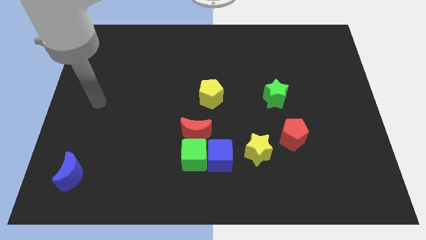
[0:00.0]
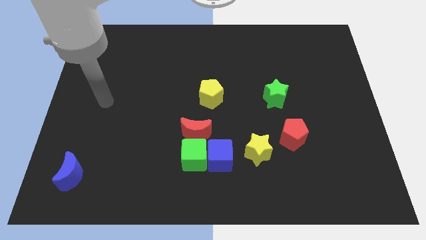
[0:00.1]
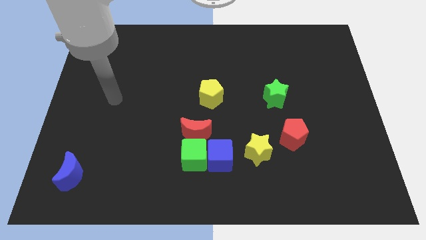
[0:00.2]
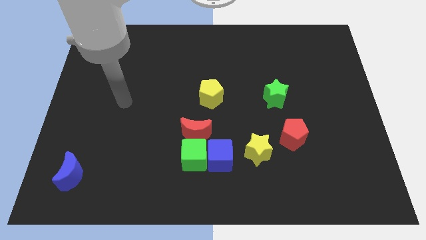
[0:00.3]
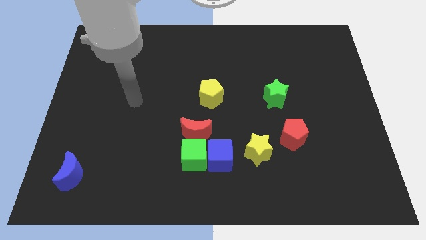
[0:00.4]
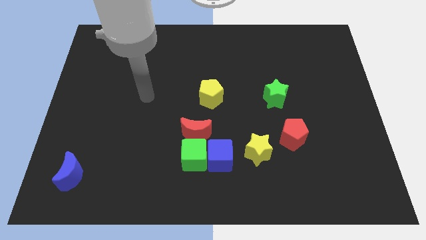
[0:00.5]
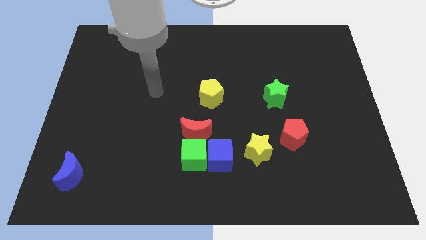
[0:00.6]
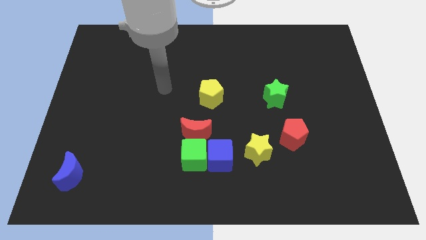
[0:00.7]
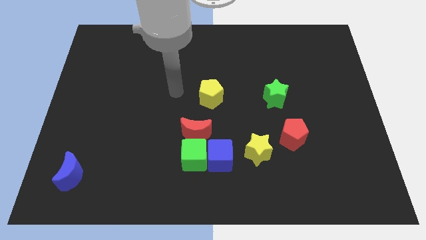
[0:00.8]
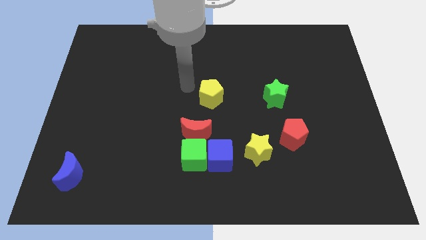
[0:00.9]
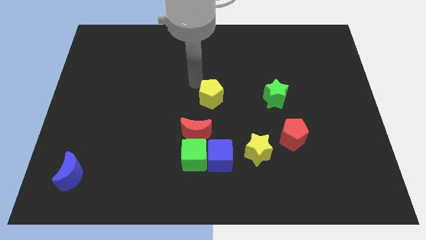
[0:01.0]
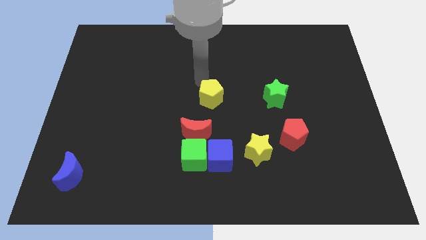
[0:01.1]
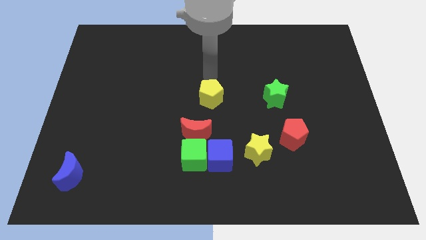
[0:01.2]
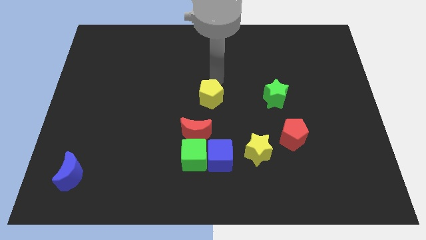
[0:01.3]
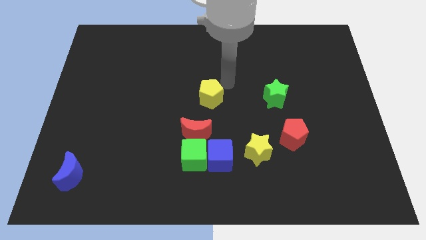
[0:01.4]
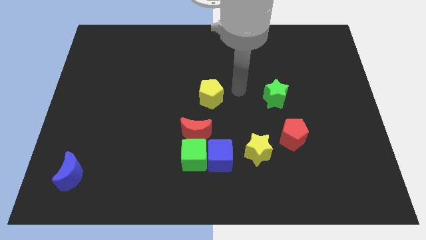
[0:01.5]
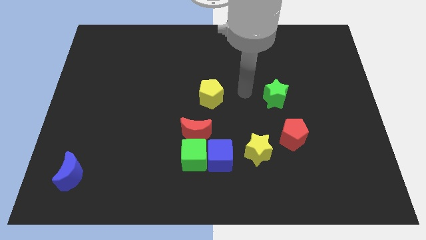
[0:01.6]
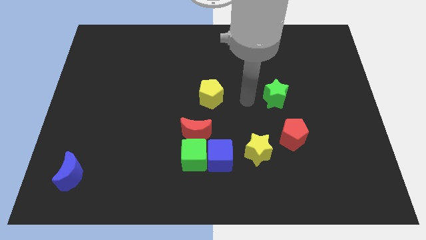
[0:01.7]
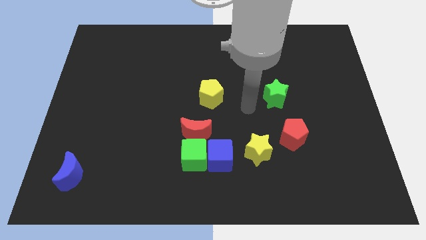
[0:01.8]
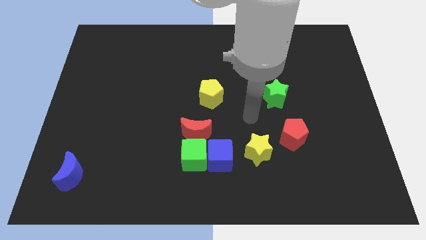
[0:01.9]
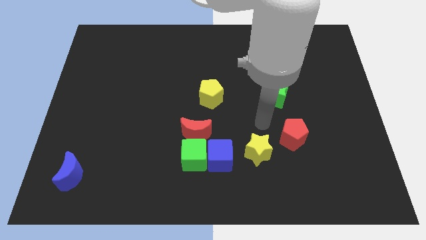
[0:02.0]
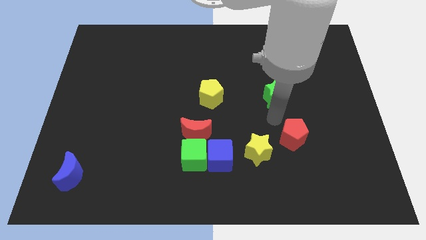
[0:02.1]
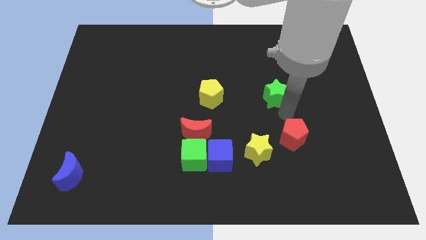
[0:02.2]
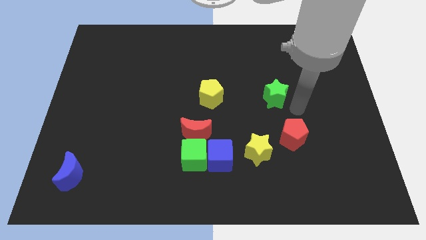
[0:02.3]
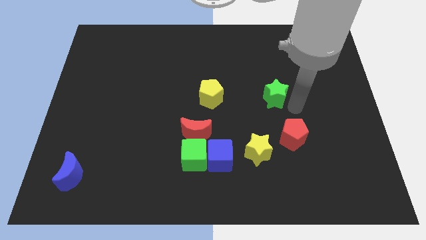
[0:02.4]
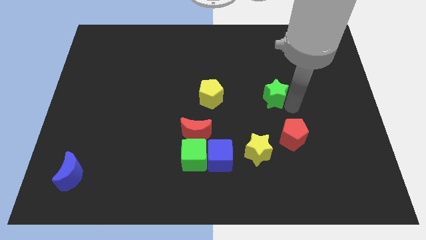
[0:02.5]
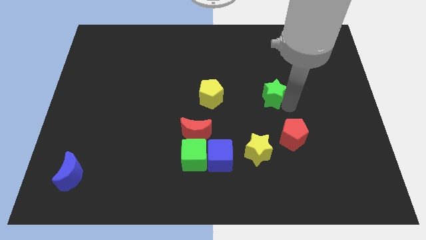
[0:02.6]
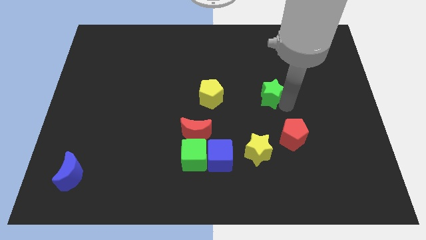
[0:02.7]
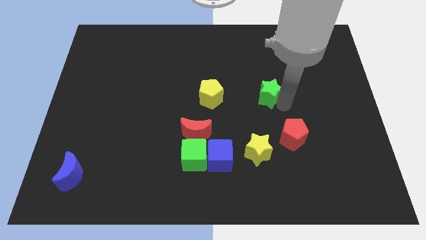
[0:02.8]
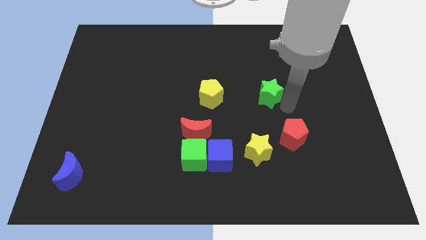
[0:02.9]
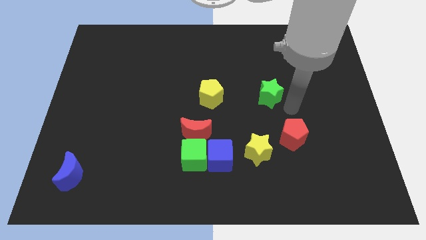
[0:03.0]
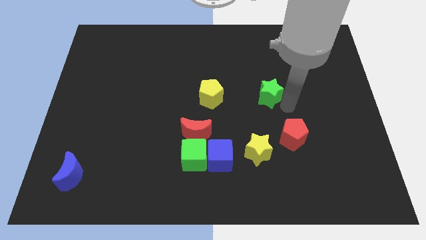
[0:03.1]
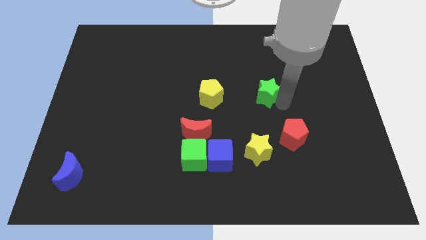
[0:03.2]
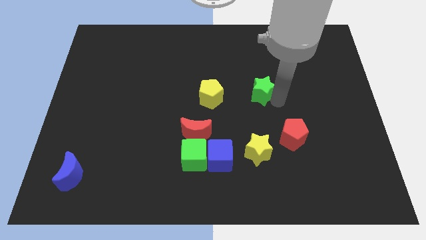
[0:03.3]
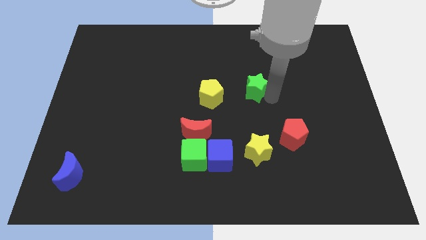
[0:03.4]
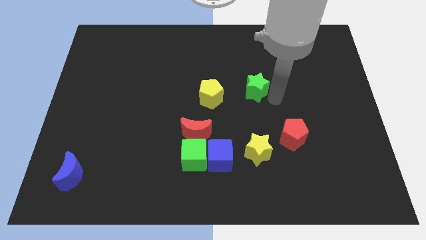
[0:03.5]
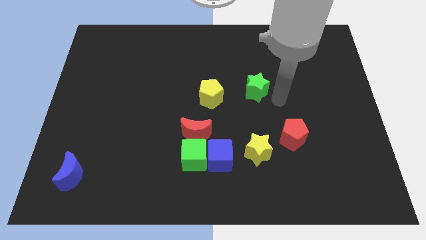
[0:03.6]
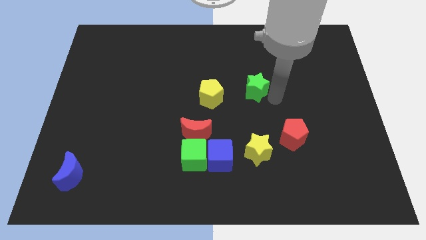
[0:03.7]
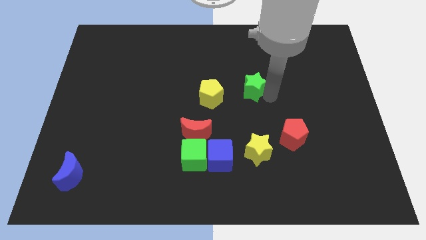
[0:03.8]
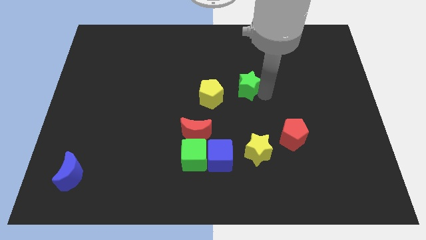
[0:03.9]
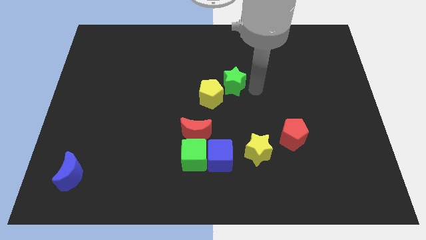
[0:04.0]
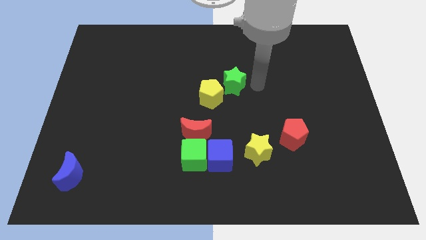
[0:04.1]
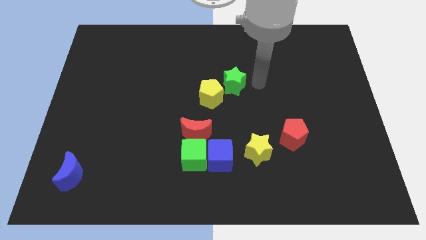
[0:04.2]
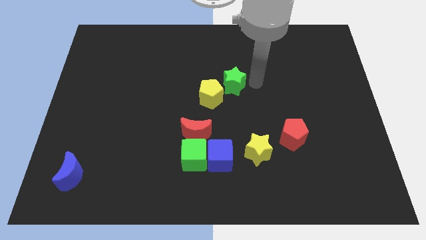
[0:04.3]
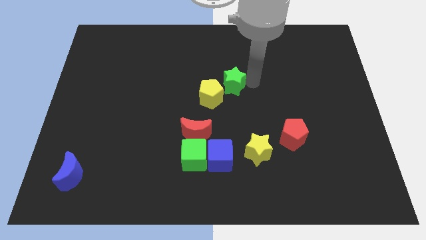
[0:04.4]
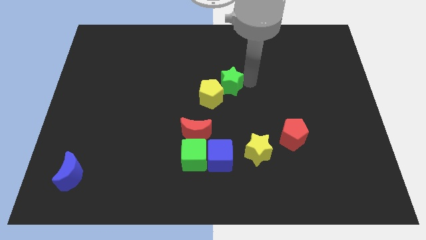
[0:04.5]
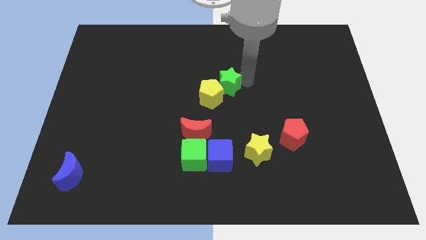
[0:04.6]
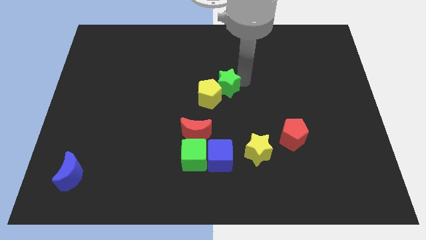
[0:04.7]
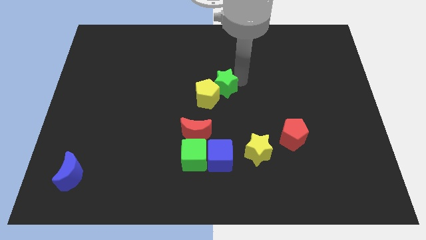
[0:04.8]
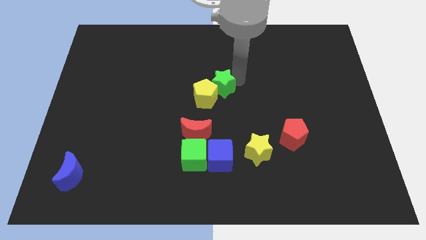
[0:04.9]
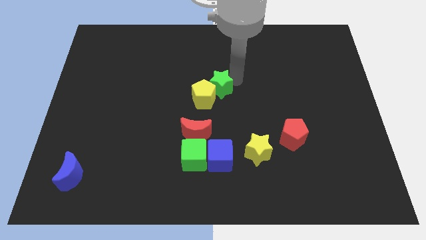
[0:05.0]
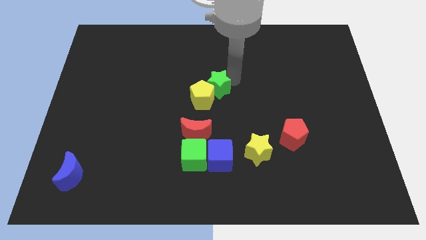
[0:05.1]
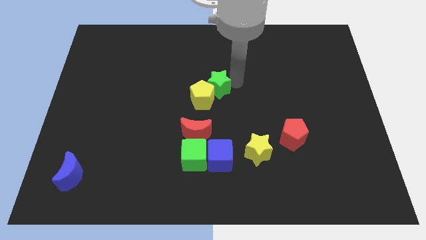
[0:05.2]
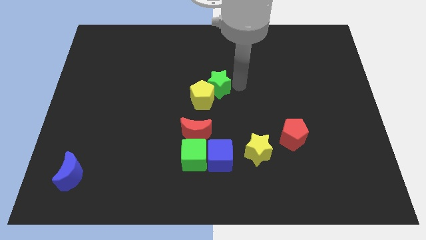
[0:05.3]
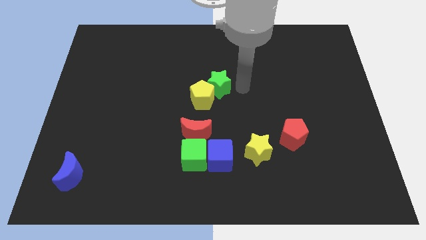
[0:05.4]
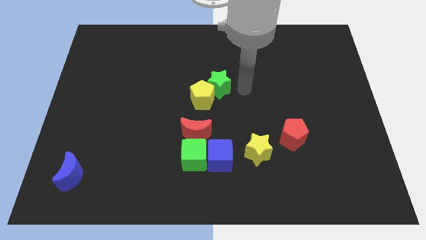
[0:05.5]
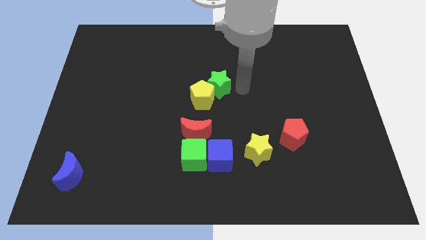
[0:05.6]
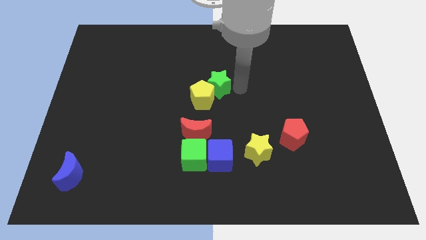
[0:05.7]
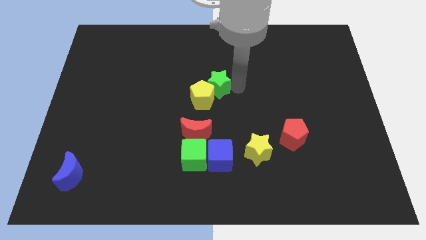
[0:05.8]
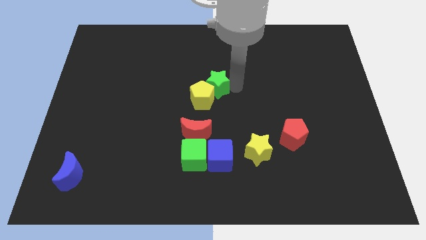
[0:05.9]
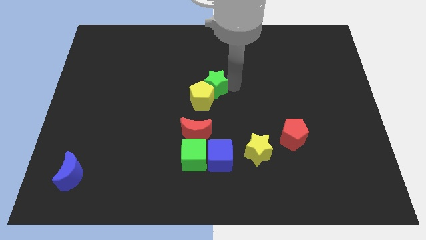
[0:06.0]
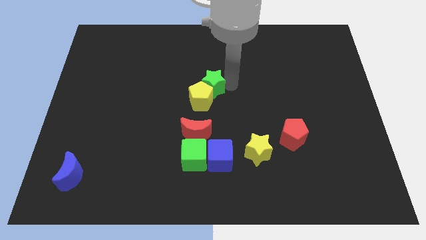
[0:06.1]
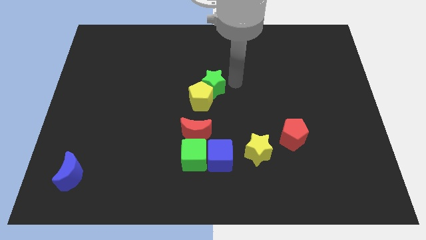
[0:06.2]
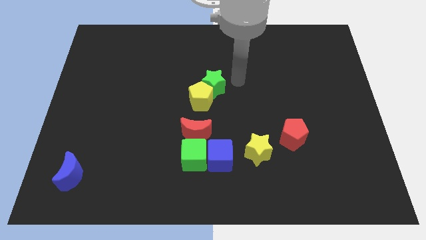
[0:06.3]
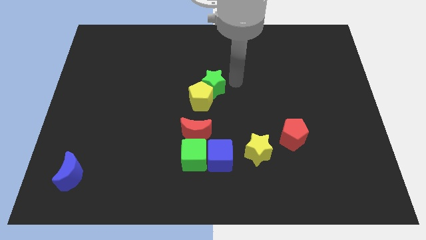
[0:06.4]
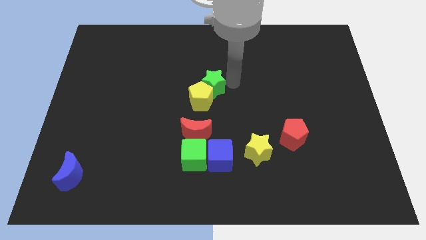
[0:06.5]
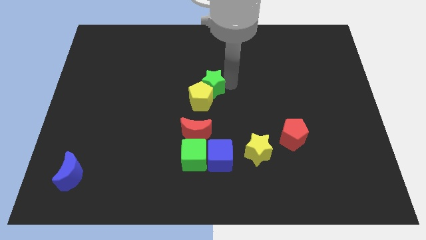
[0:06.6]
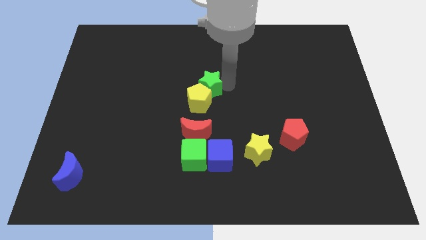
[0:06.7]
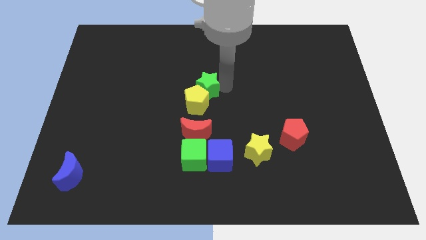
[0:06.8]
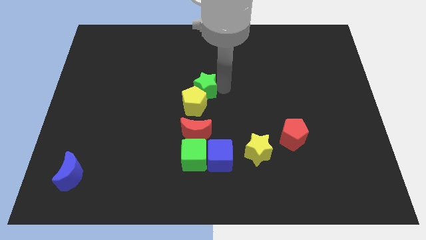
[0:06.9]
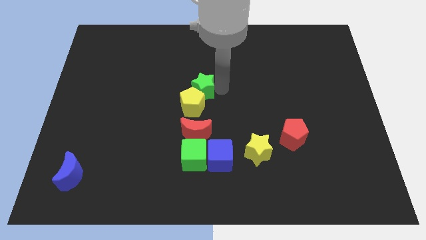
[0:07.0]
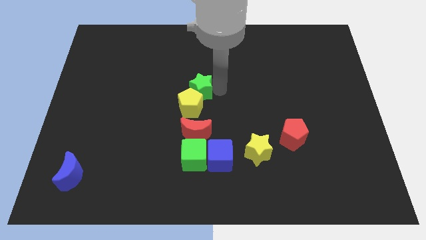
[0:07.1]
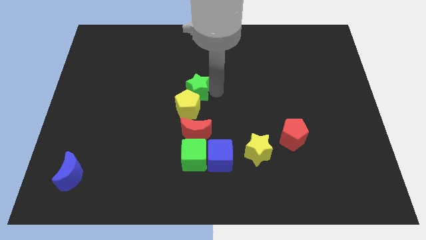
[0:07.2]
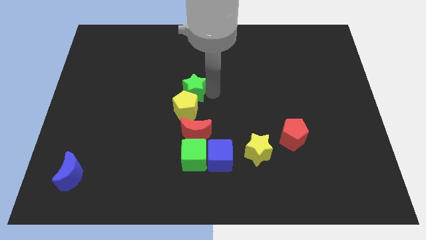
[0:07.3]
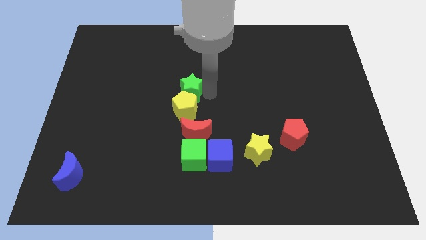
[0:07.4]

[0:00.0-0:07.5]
slide the green star left
